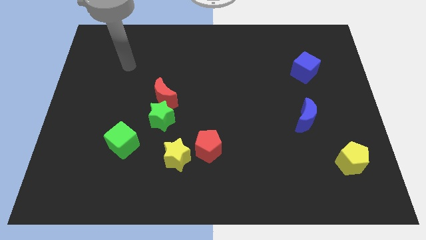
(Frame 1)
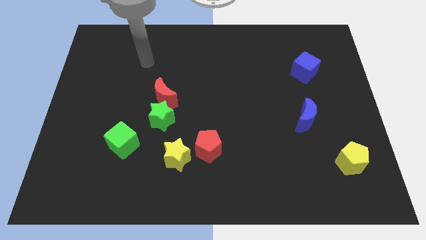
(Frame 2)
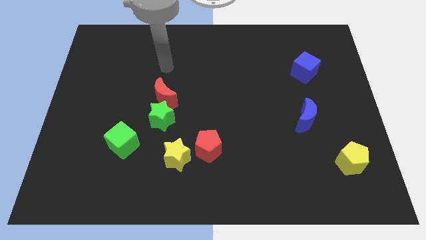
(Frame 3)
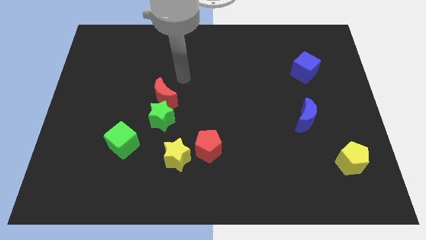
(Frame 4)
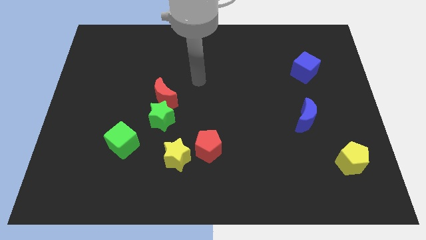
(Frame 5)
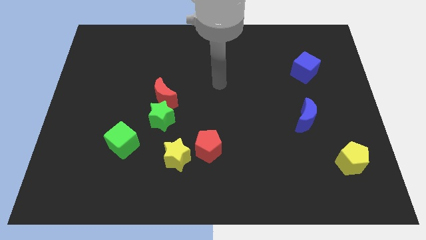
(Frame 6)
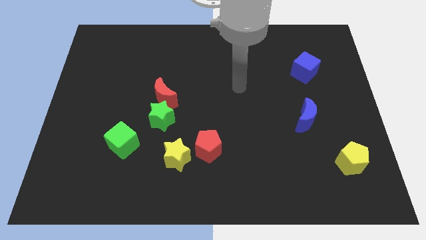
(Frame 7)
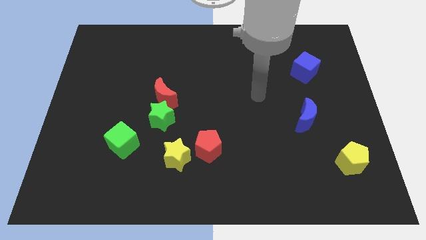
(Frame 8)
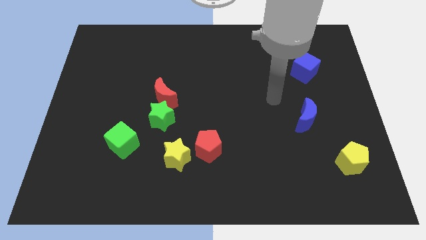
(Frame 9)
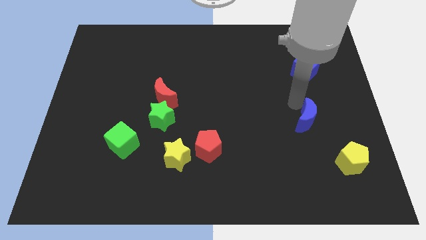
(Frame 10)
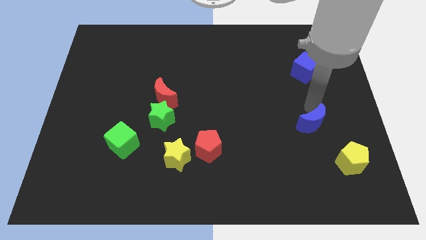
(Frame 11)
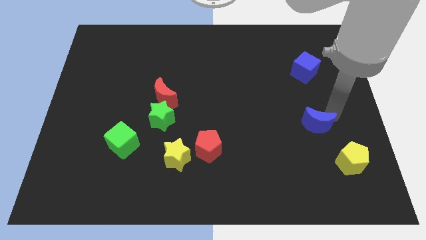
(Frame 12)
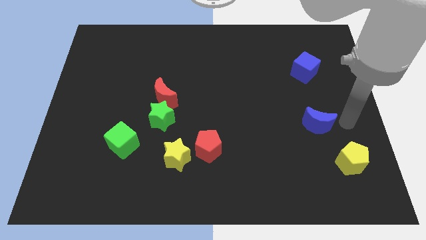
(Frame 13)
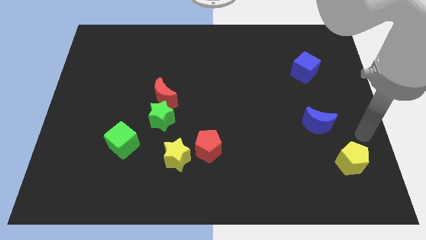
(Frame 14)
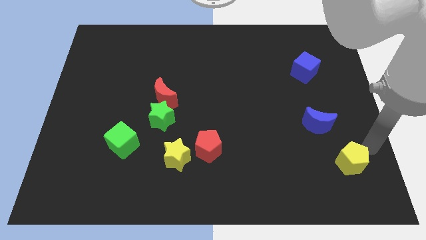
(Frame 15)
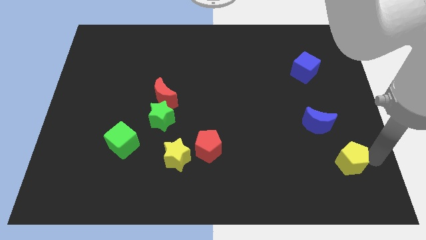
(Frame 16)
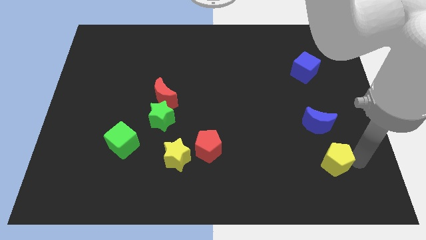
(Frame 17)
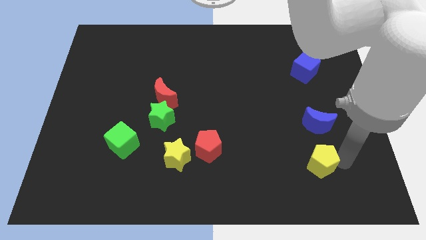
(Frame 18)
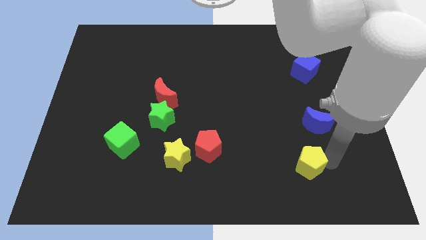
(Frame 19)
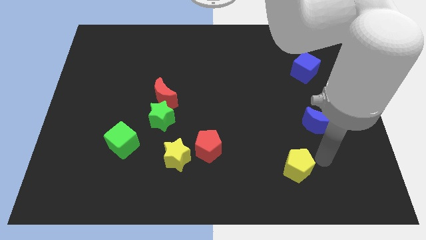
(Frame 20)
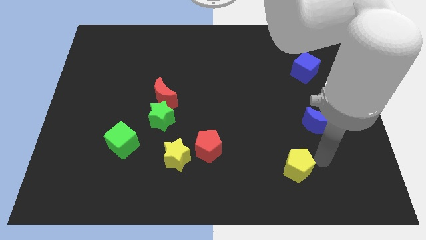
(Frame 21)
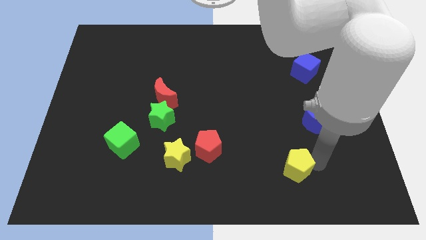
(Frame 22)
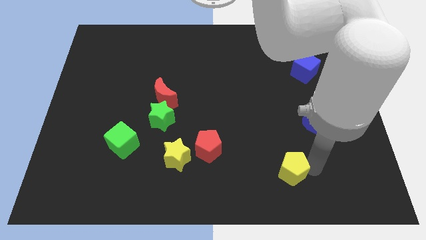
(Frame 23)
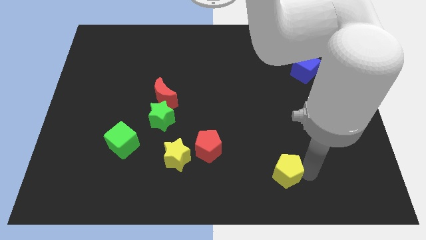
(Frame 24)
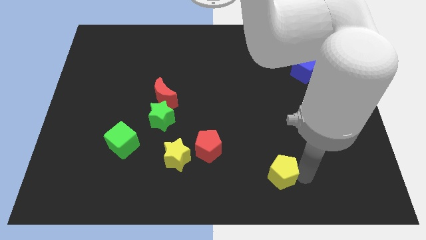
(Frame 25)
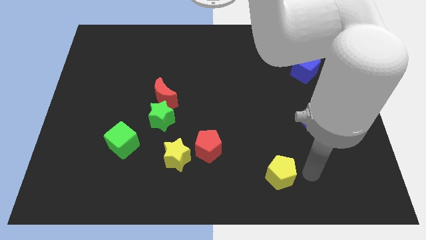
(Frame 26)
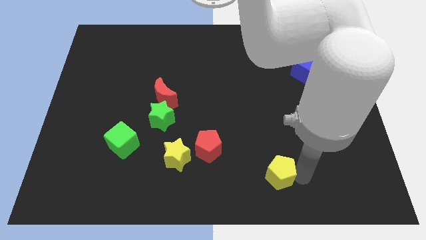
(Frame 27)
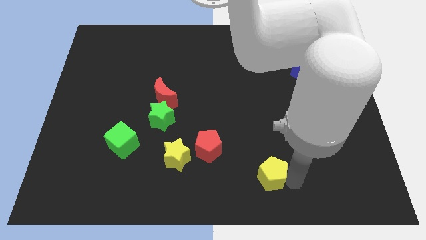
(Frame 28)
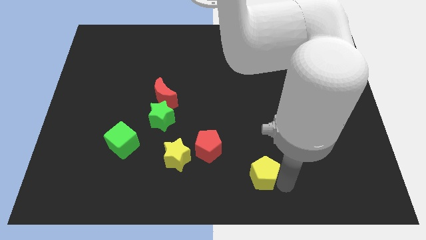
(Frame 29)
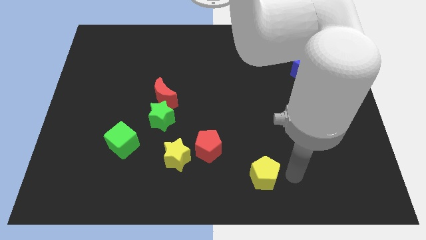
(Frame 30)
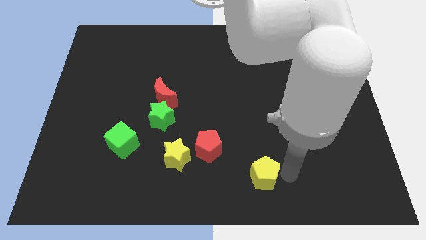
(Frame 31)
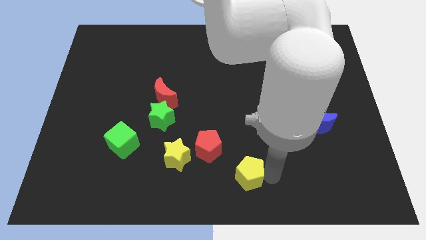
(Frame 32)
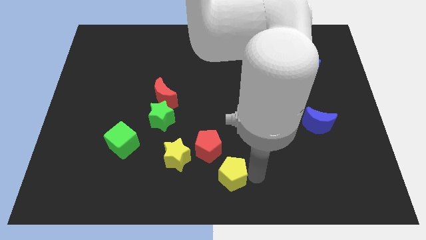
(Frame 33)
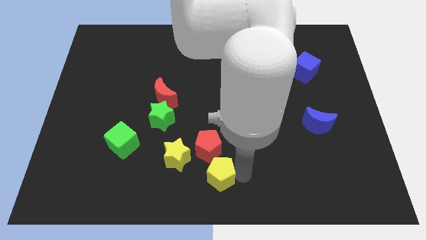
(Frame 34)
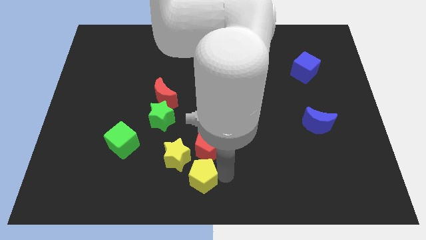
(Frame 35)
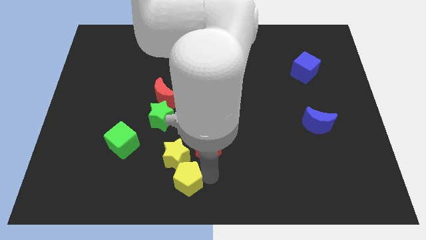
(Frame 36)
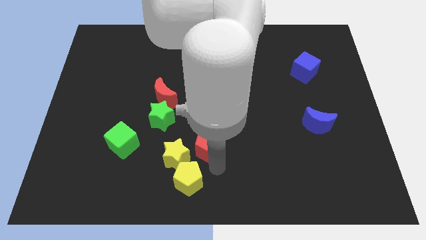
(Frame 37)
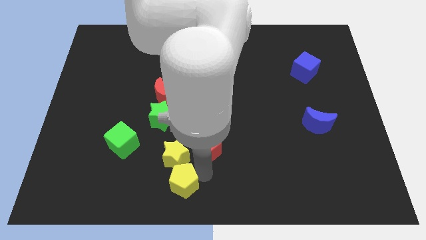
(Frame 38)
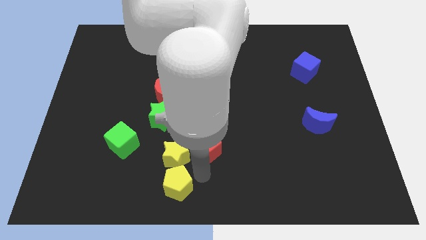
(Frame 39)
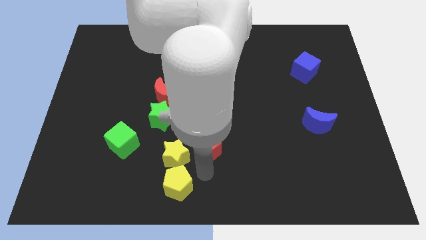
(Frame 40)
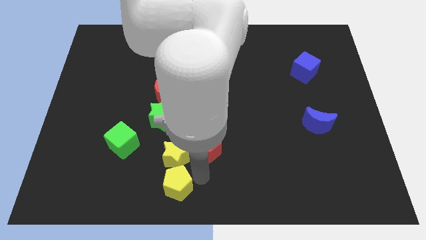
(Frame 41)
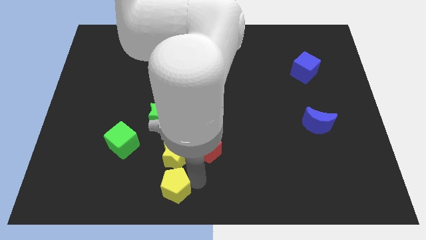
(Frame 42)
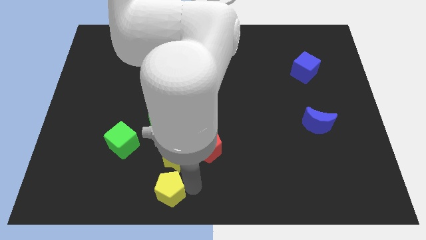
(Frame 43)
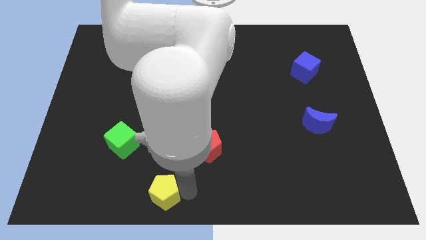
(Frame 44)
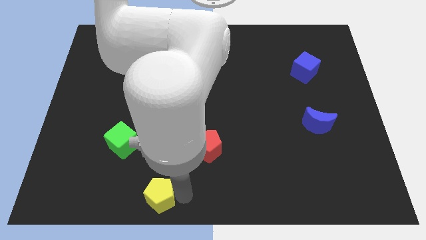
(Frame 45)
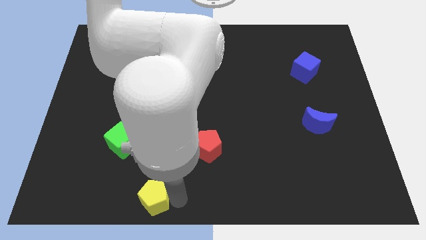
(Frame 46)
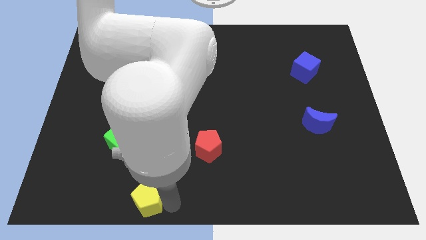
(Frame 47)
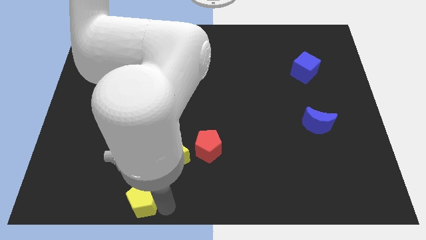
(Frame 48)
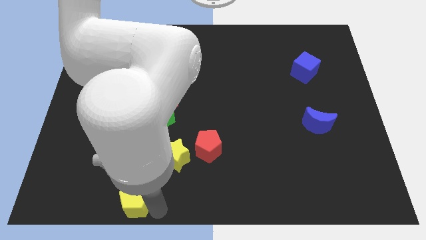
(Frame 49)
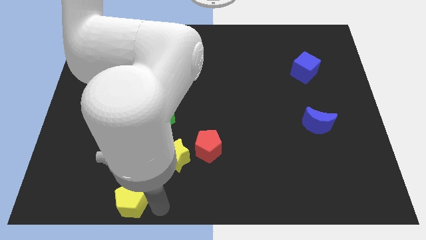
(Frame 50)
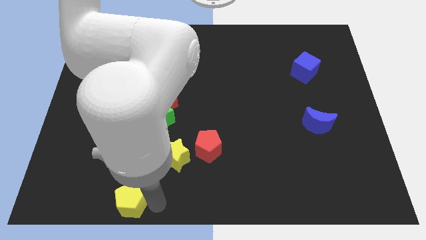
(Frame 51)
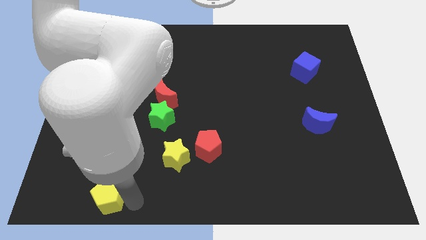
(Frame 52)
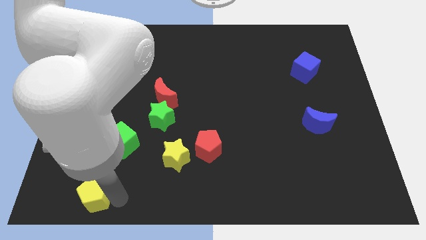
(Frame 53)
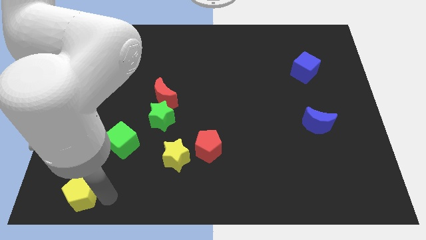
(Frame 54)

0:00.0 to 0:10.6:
put the yellow pentagon to the bottom left of the board

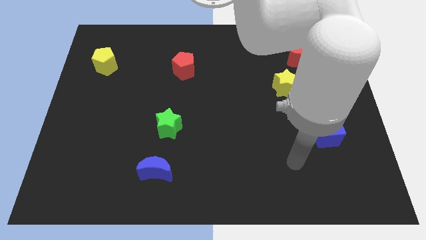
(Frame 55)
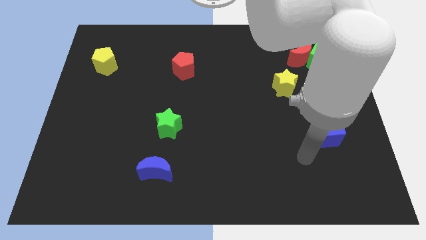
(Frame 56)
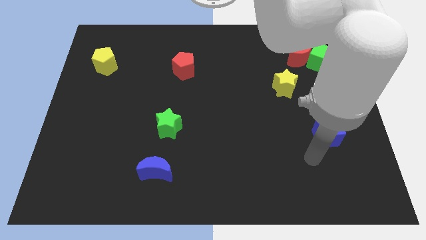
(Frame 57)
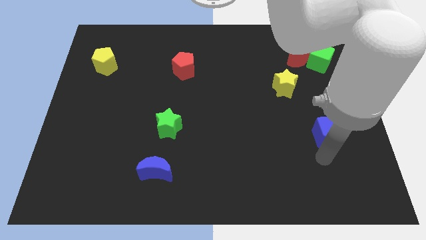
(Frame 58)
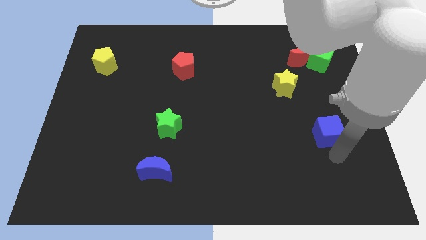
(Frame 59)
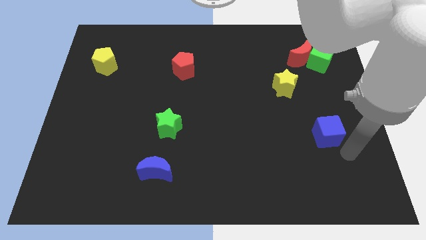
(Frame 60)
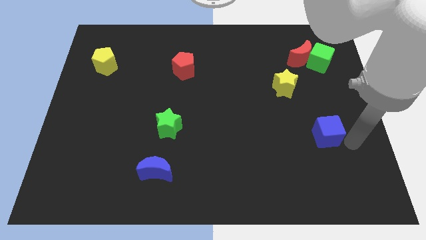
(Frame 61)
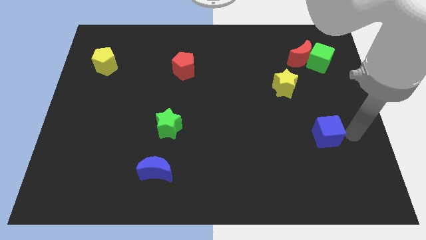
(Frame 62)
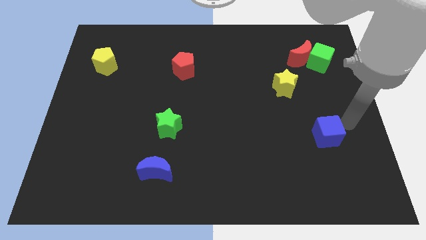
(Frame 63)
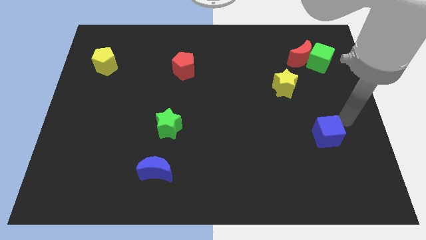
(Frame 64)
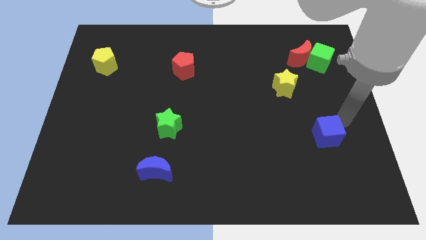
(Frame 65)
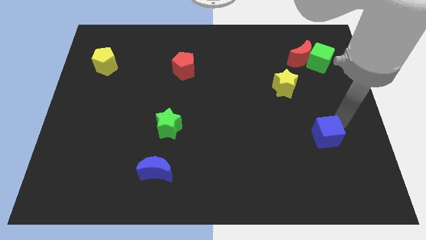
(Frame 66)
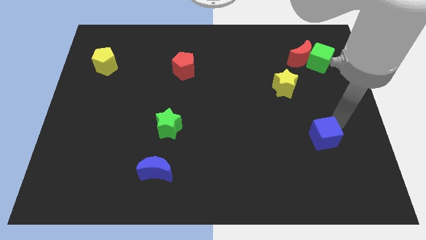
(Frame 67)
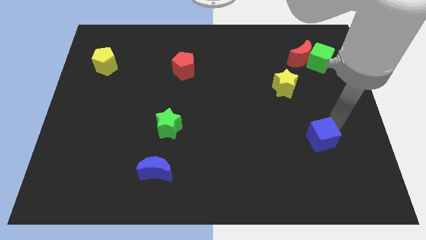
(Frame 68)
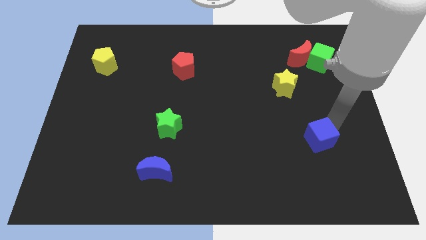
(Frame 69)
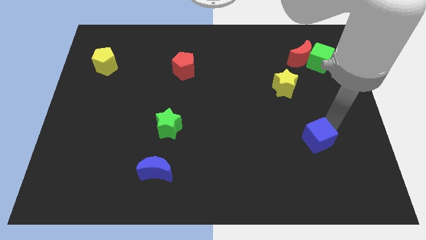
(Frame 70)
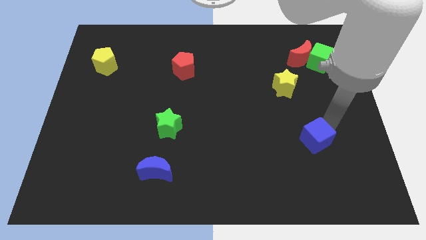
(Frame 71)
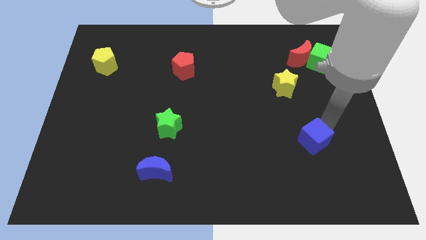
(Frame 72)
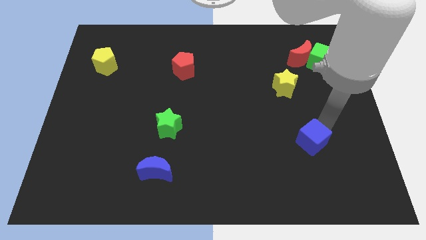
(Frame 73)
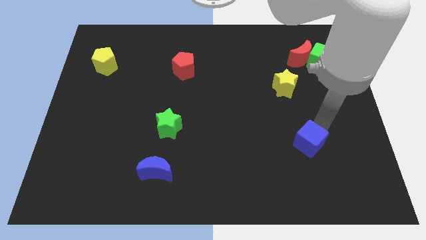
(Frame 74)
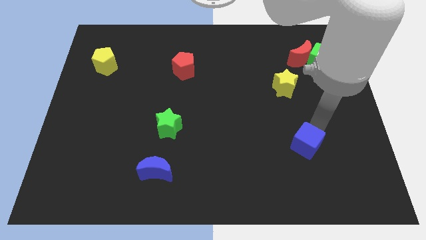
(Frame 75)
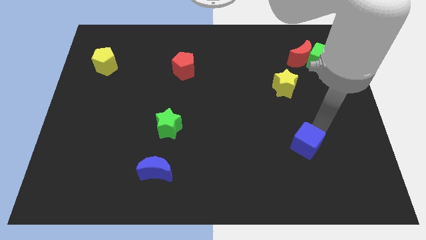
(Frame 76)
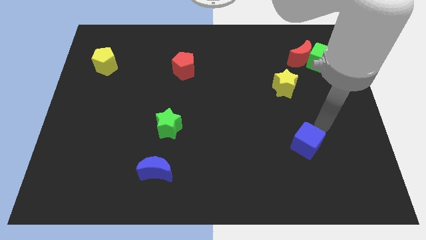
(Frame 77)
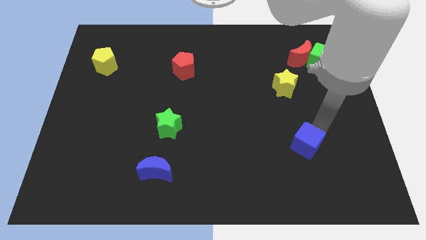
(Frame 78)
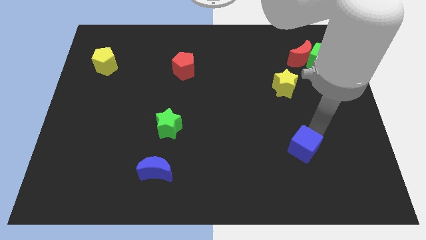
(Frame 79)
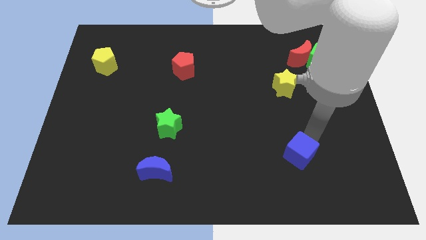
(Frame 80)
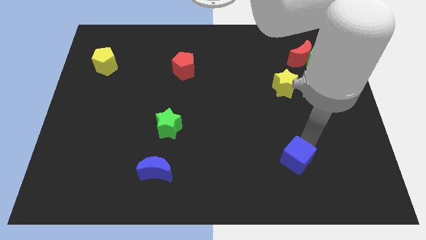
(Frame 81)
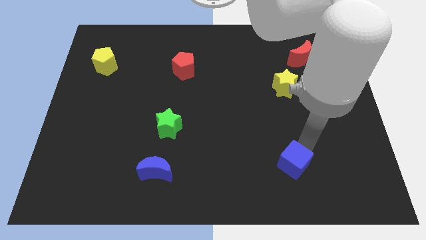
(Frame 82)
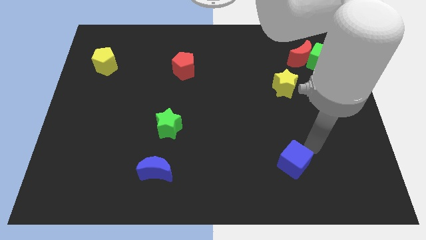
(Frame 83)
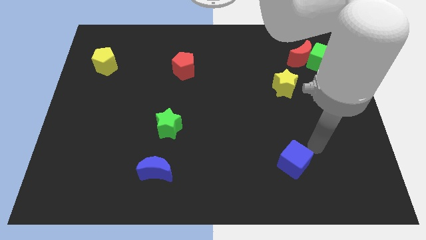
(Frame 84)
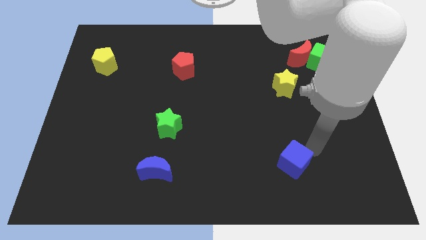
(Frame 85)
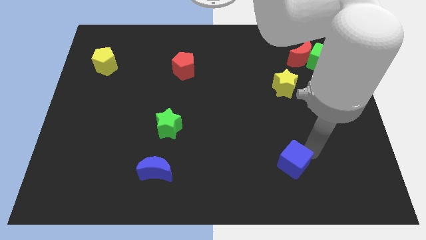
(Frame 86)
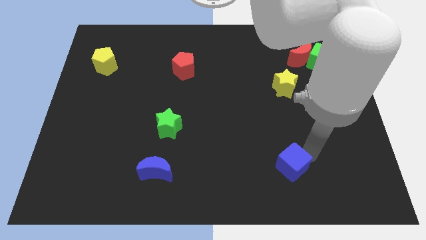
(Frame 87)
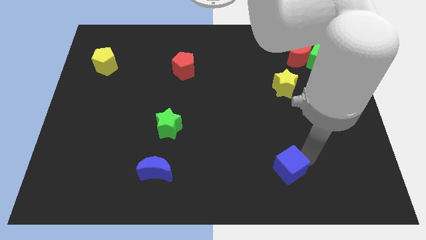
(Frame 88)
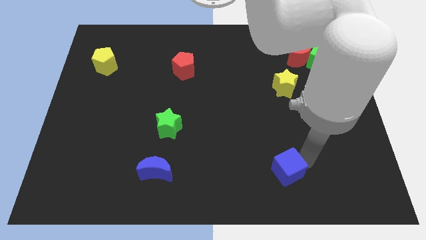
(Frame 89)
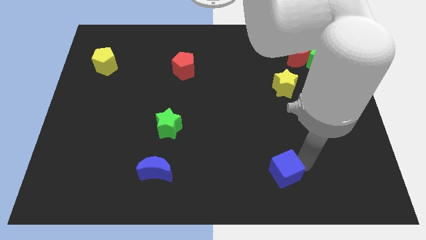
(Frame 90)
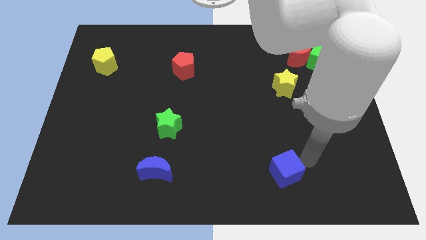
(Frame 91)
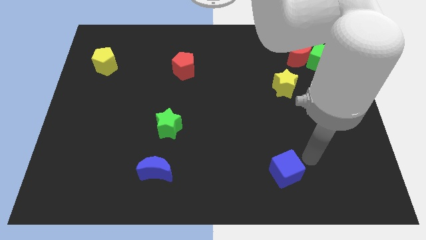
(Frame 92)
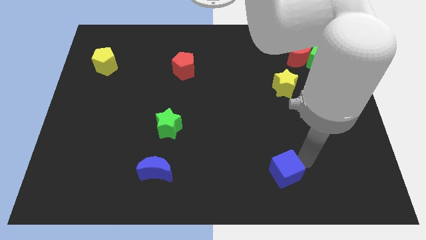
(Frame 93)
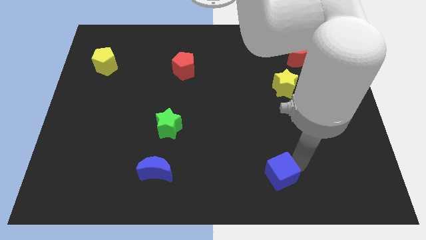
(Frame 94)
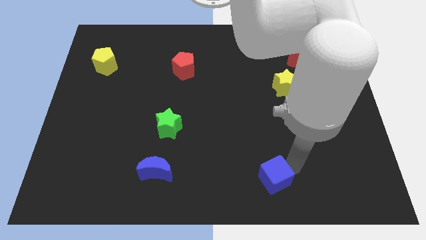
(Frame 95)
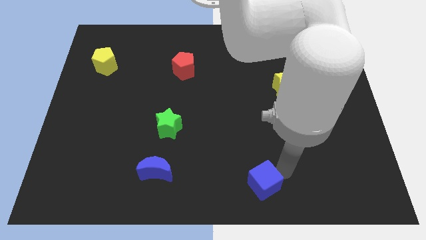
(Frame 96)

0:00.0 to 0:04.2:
put the blue cube to the bottom
